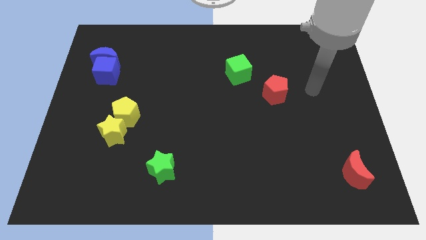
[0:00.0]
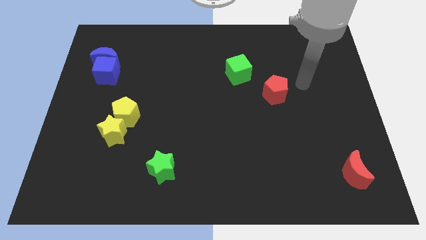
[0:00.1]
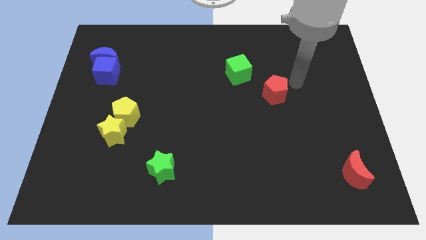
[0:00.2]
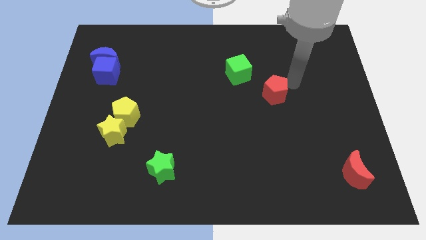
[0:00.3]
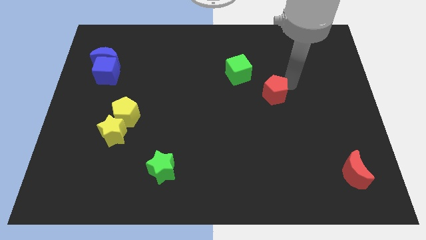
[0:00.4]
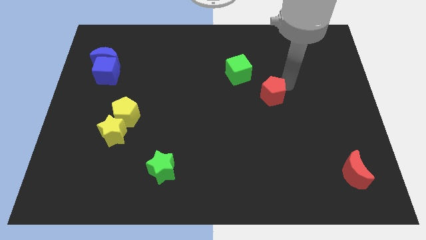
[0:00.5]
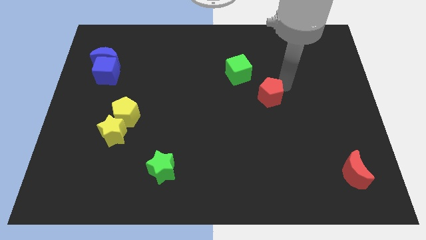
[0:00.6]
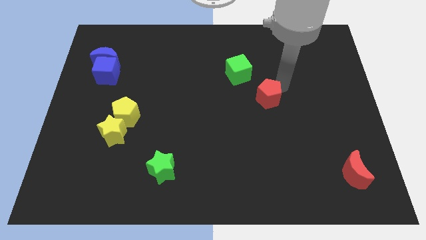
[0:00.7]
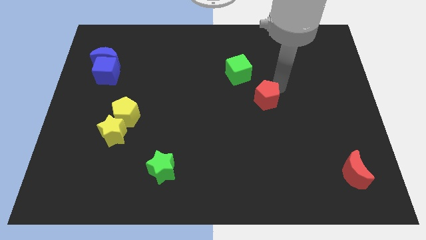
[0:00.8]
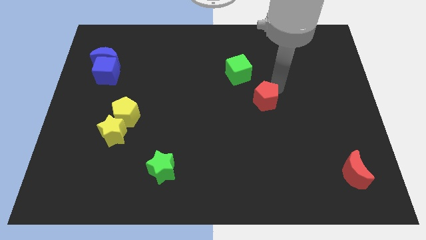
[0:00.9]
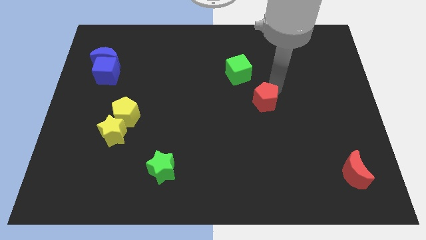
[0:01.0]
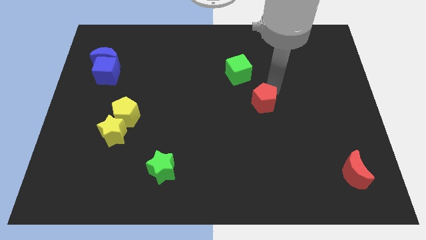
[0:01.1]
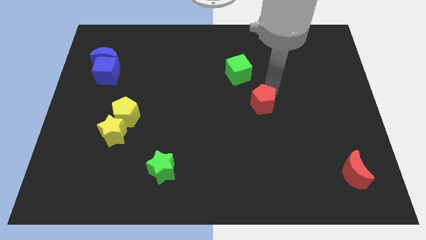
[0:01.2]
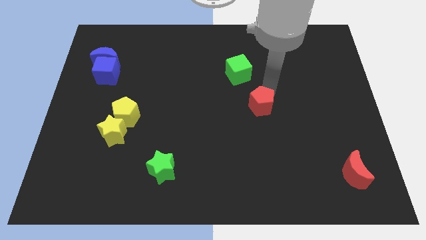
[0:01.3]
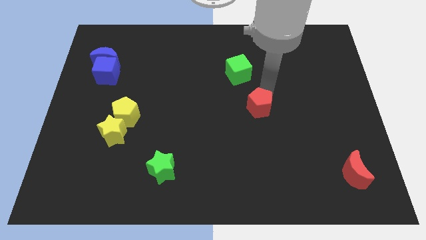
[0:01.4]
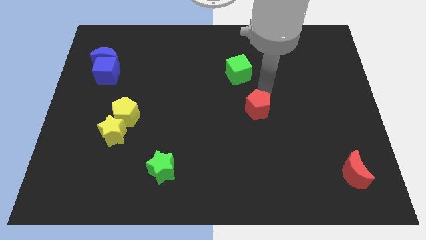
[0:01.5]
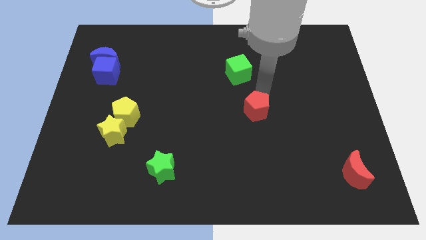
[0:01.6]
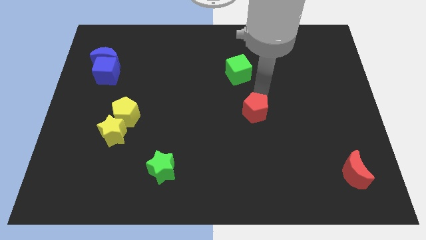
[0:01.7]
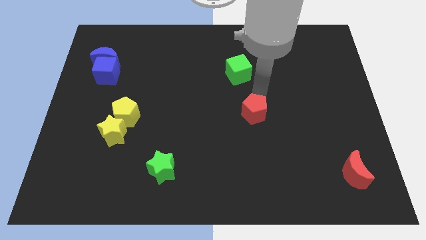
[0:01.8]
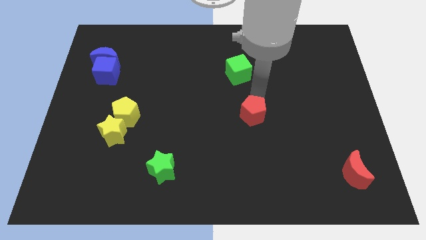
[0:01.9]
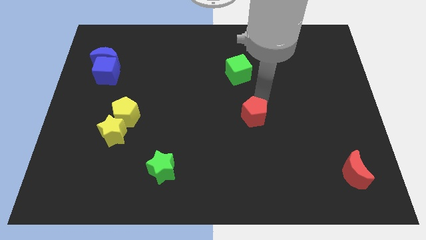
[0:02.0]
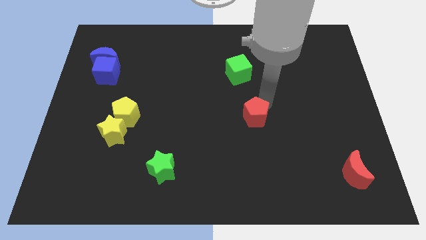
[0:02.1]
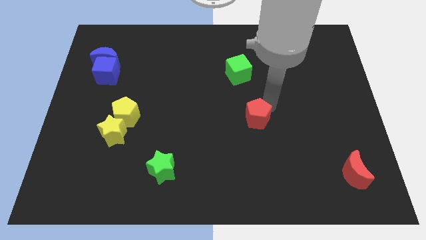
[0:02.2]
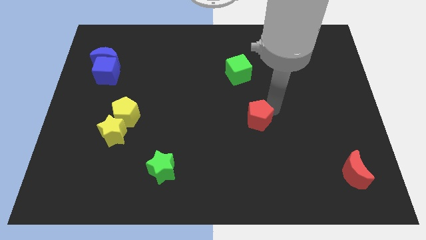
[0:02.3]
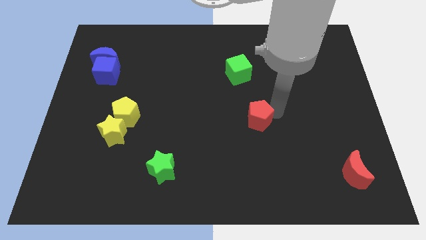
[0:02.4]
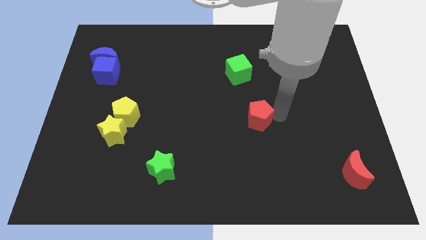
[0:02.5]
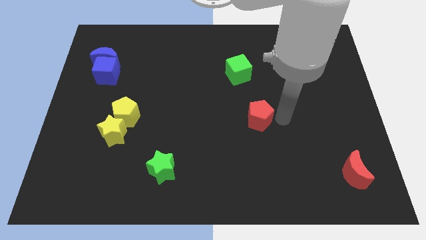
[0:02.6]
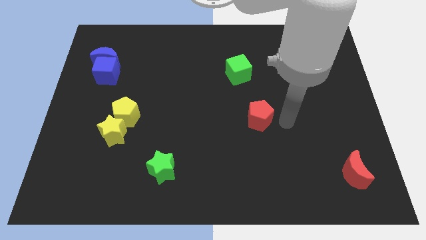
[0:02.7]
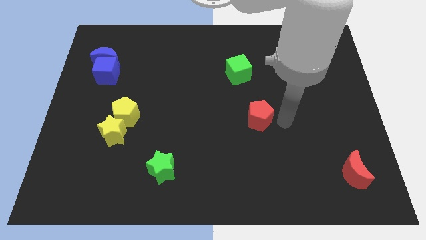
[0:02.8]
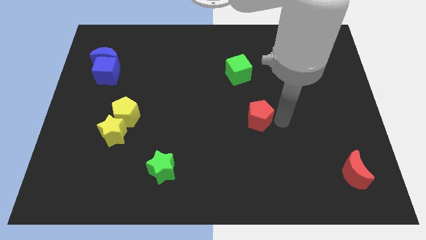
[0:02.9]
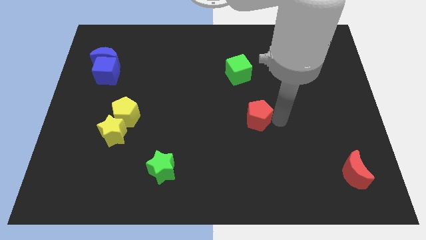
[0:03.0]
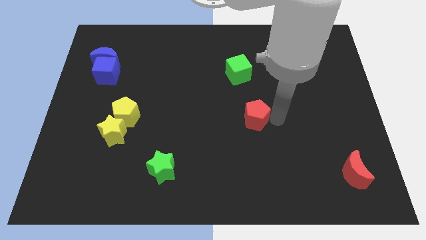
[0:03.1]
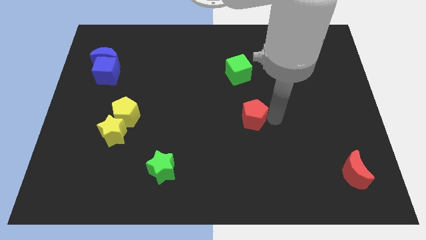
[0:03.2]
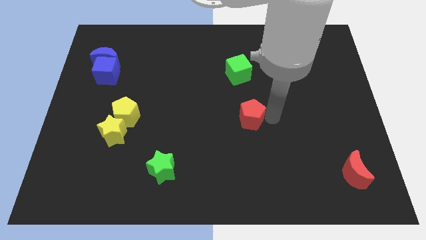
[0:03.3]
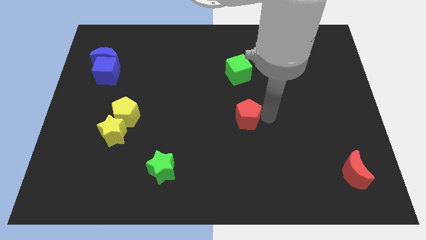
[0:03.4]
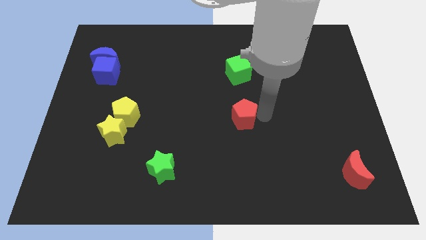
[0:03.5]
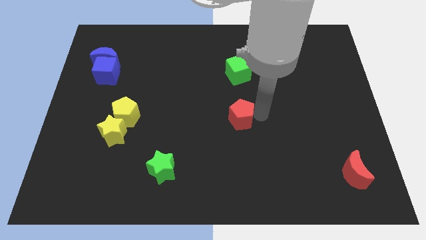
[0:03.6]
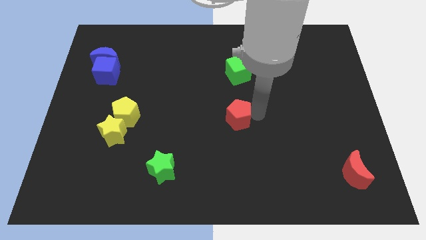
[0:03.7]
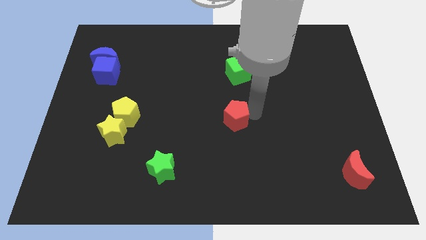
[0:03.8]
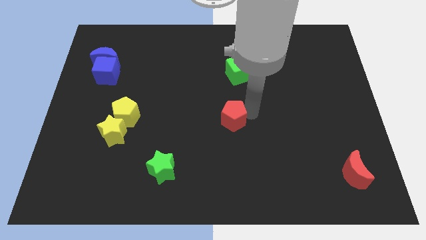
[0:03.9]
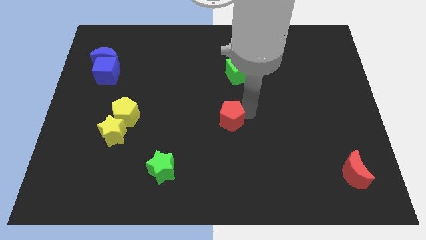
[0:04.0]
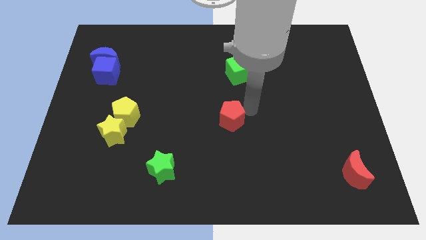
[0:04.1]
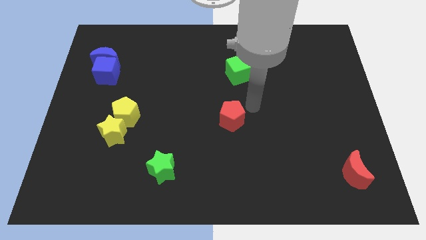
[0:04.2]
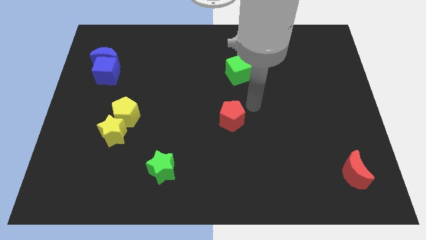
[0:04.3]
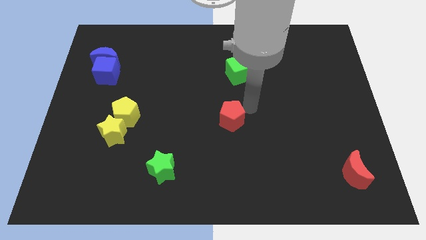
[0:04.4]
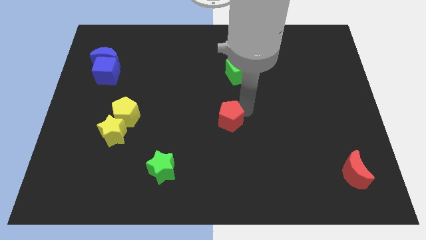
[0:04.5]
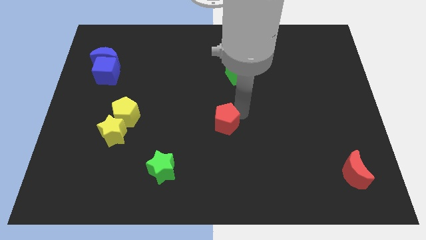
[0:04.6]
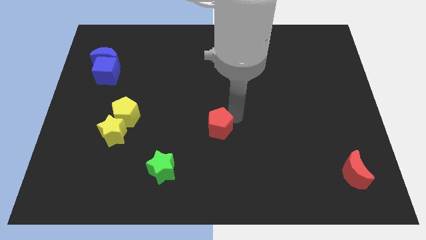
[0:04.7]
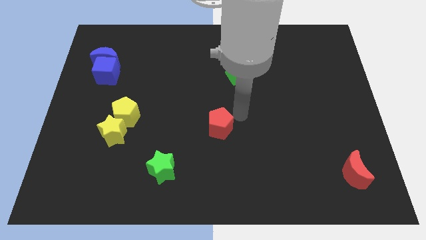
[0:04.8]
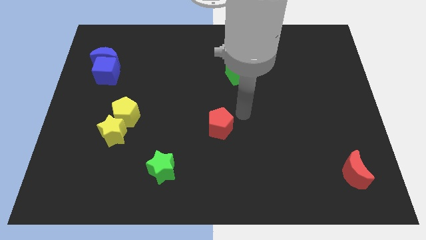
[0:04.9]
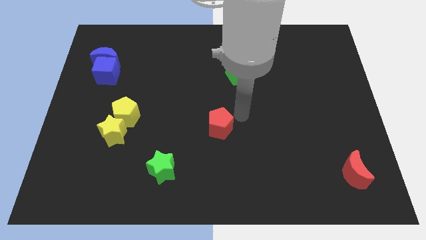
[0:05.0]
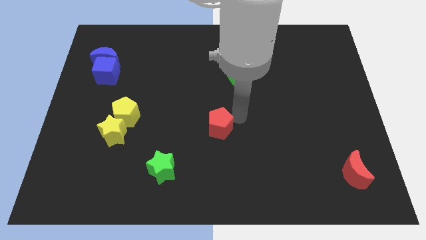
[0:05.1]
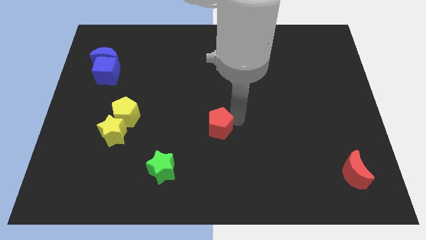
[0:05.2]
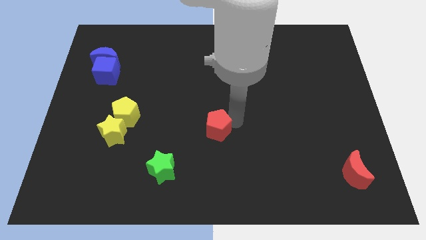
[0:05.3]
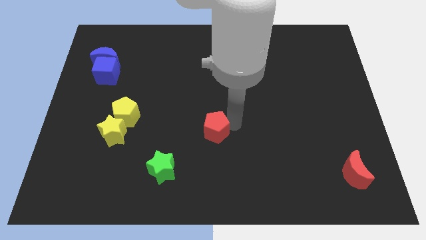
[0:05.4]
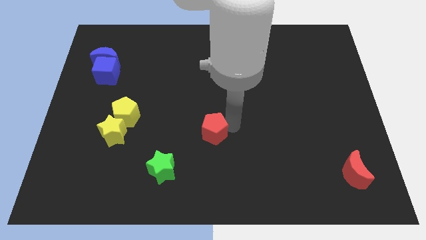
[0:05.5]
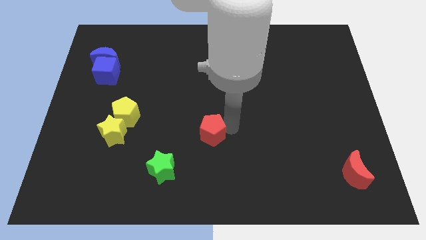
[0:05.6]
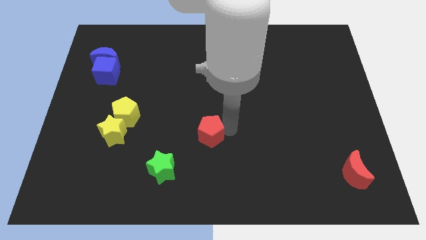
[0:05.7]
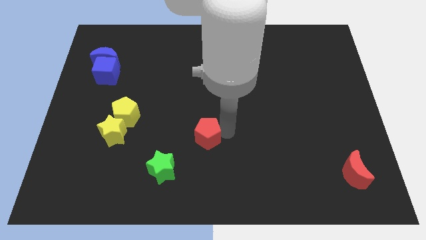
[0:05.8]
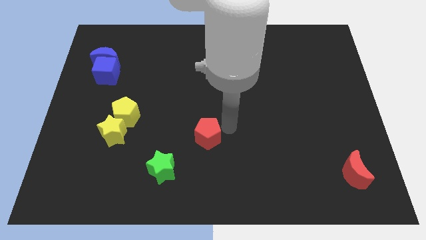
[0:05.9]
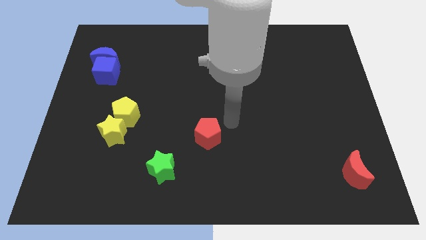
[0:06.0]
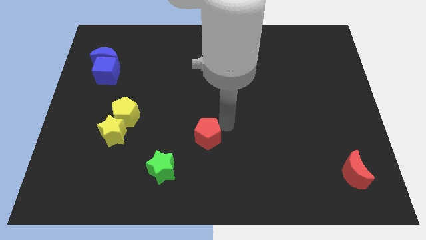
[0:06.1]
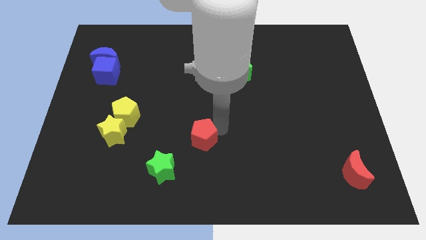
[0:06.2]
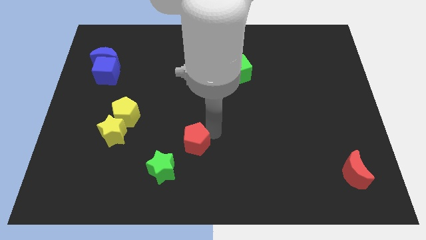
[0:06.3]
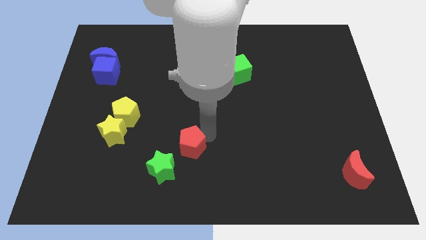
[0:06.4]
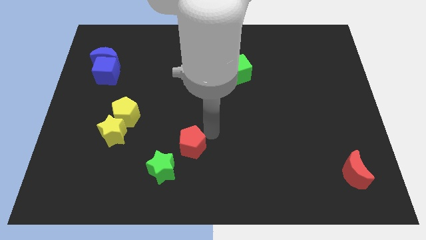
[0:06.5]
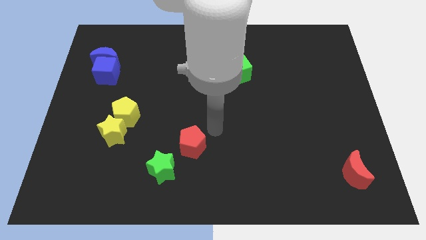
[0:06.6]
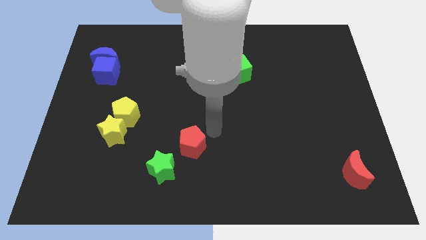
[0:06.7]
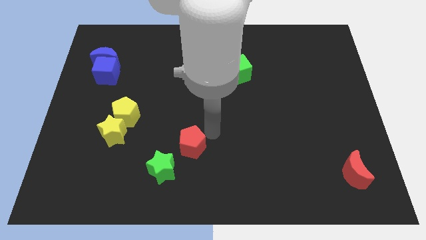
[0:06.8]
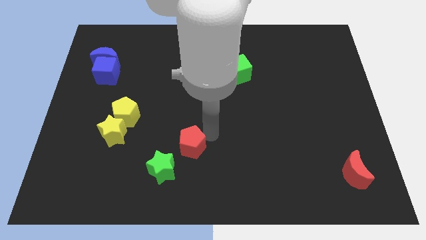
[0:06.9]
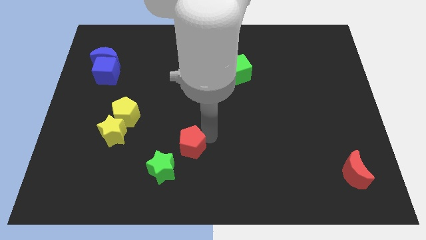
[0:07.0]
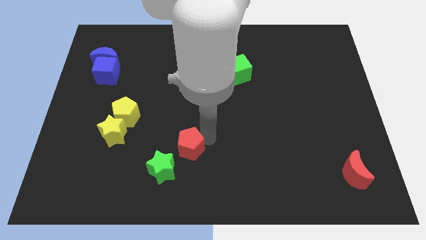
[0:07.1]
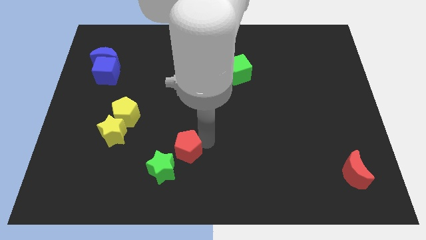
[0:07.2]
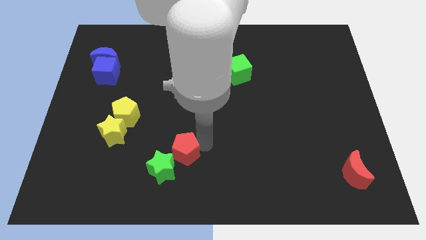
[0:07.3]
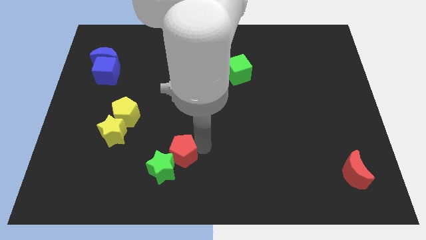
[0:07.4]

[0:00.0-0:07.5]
push the red pentagon towards the green star
